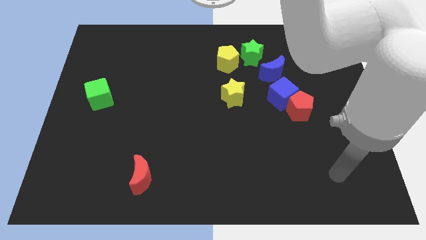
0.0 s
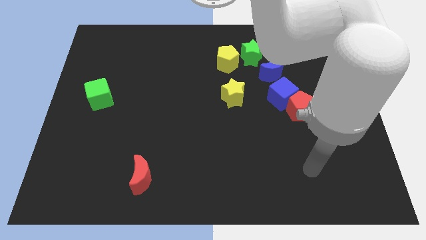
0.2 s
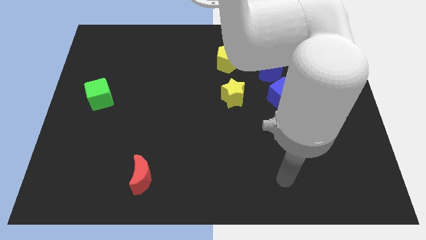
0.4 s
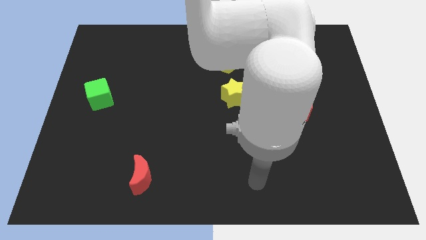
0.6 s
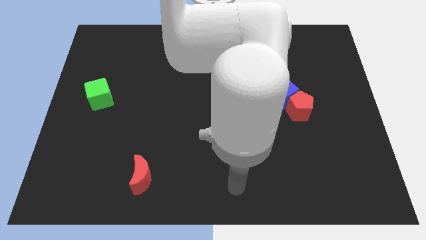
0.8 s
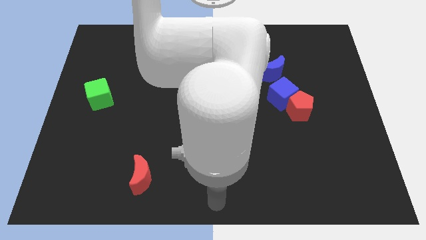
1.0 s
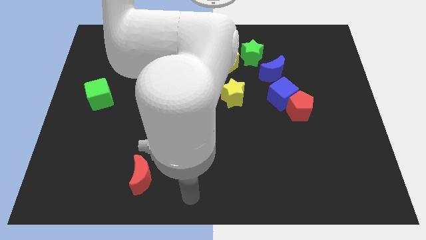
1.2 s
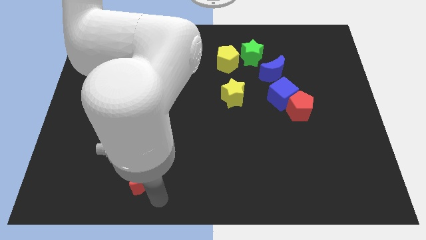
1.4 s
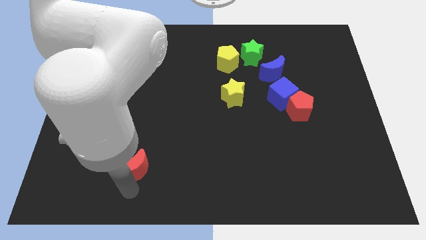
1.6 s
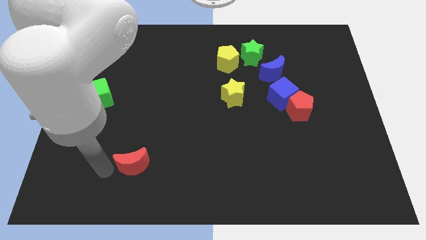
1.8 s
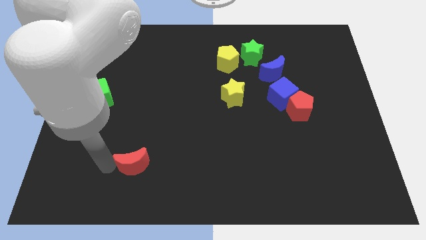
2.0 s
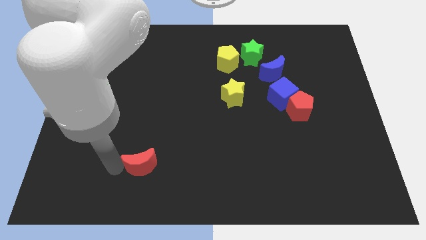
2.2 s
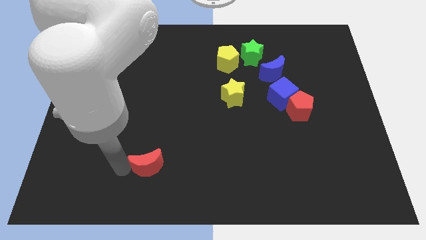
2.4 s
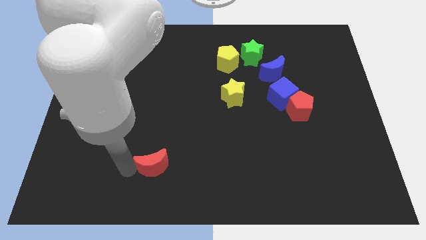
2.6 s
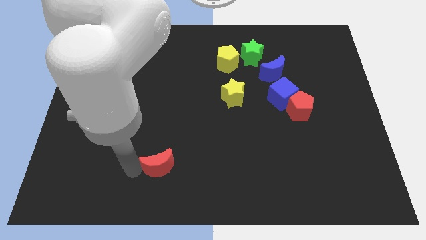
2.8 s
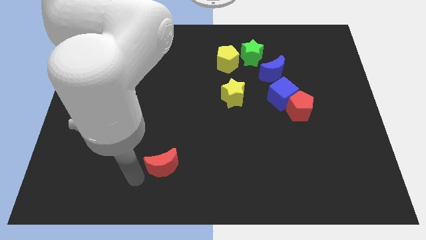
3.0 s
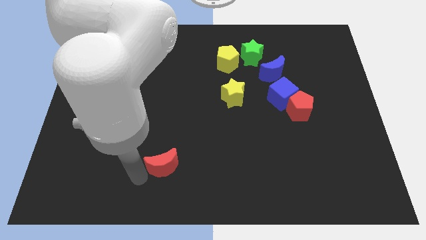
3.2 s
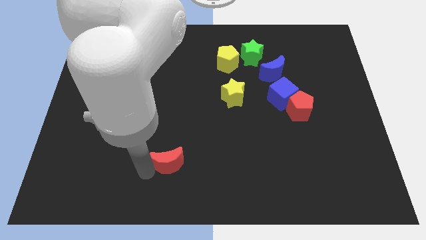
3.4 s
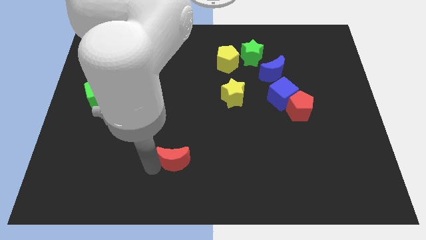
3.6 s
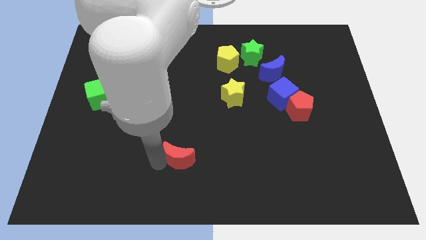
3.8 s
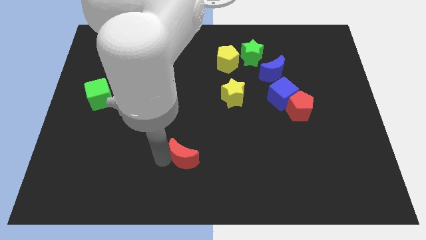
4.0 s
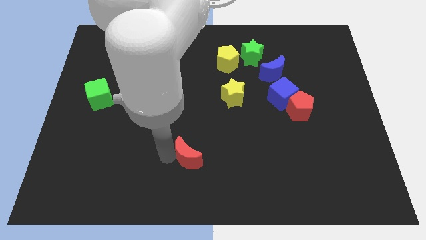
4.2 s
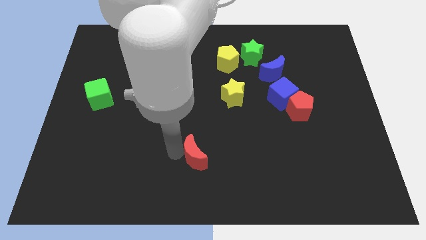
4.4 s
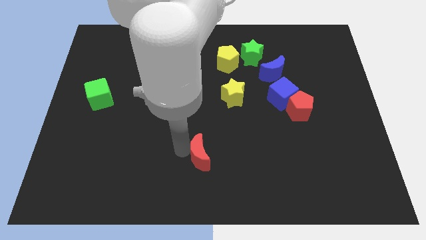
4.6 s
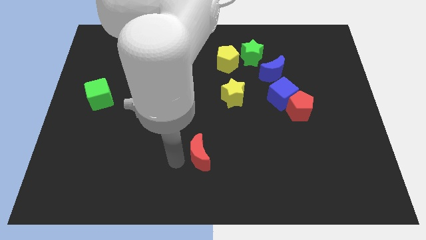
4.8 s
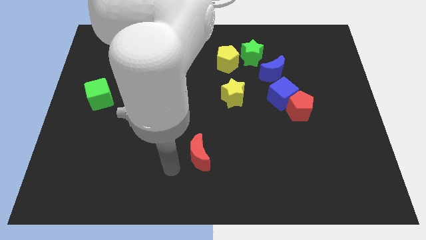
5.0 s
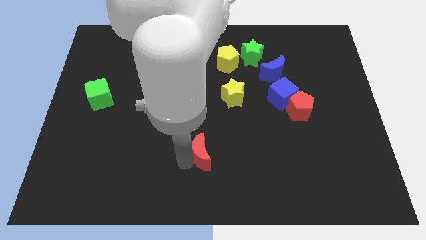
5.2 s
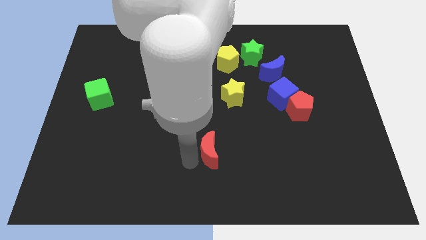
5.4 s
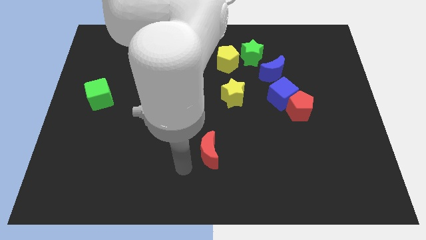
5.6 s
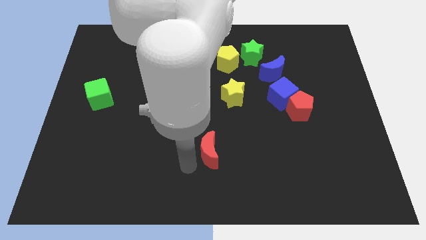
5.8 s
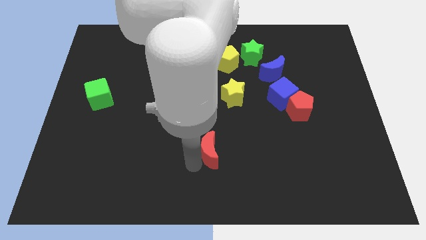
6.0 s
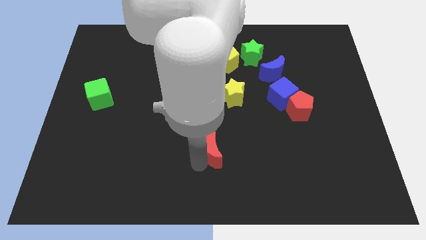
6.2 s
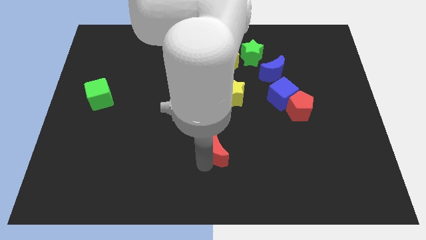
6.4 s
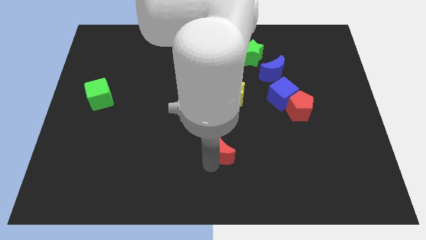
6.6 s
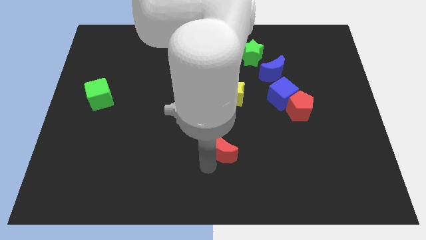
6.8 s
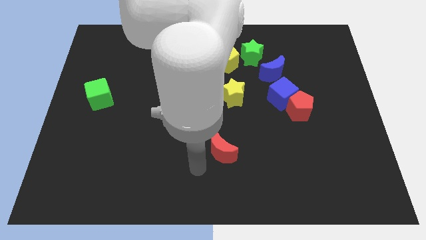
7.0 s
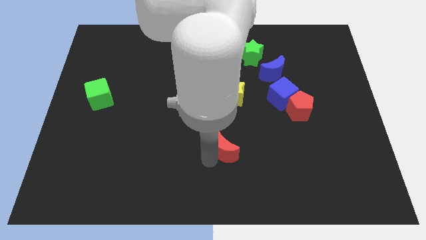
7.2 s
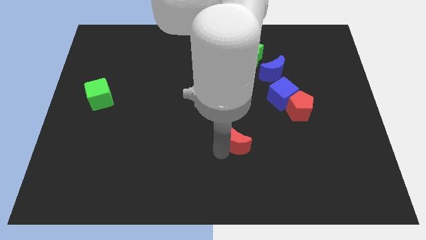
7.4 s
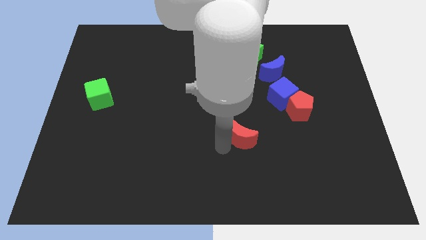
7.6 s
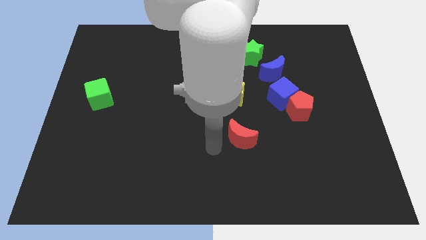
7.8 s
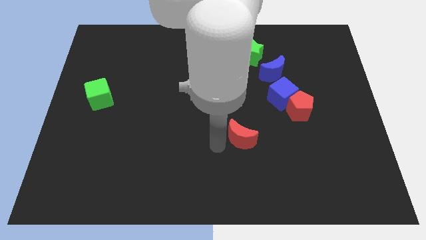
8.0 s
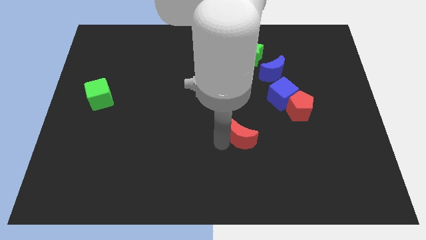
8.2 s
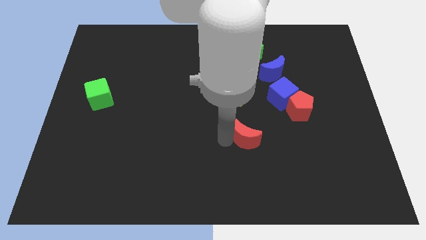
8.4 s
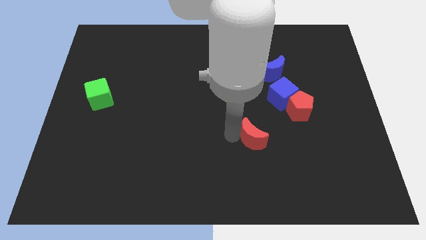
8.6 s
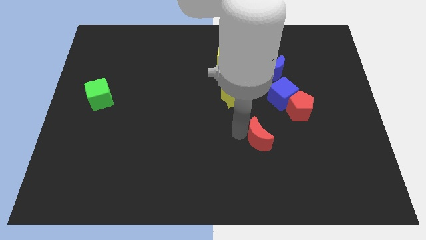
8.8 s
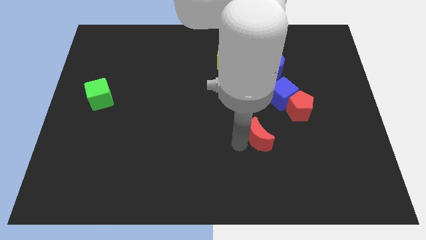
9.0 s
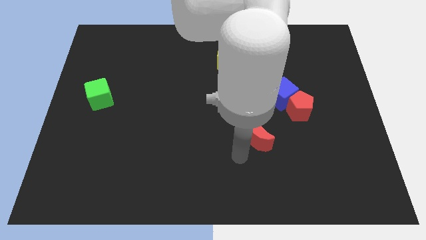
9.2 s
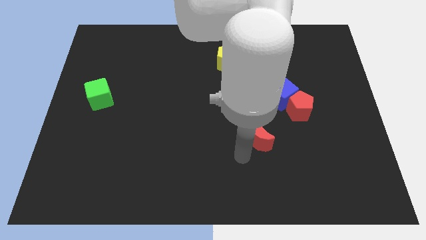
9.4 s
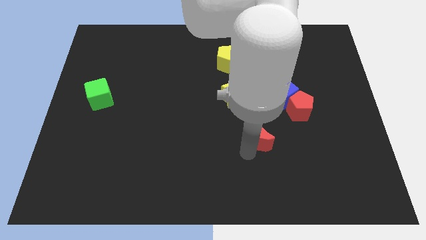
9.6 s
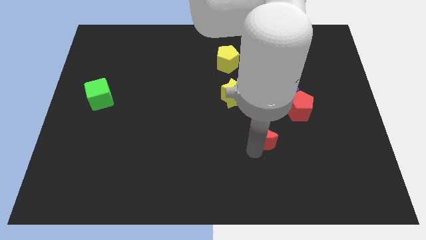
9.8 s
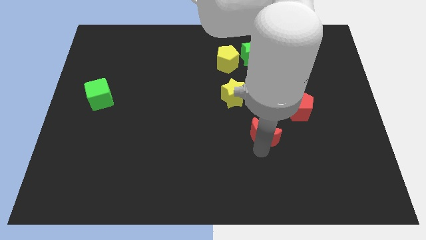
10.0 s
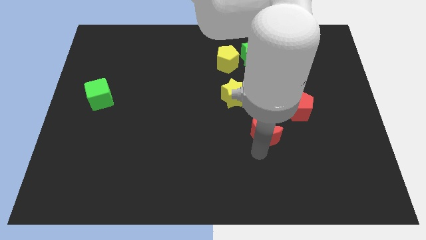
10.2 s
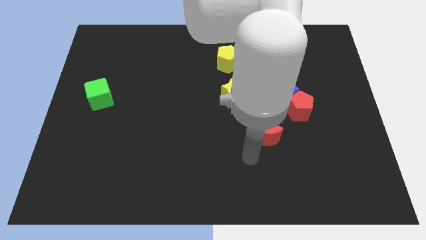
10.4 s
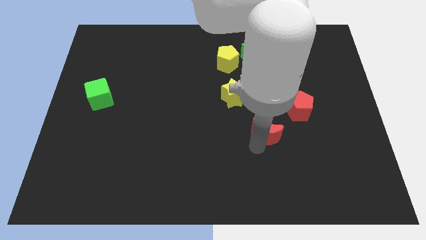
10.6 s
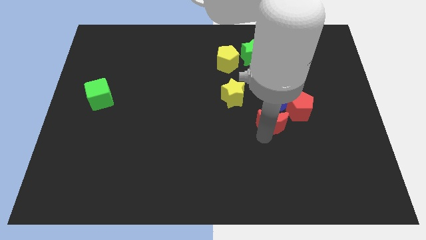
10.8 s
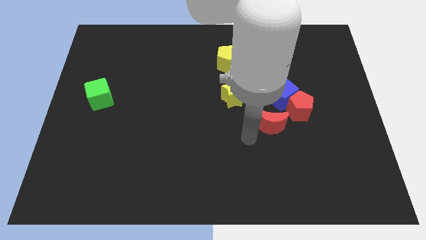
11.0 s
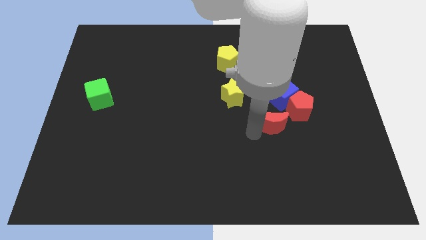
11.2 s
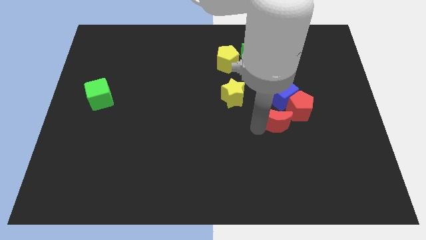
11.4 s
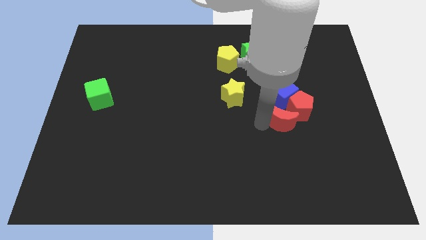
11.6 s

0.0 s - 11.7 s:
put the red moon close to the red pentagon

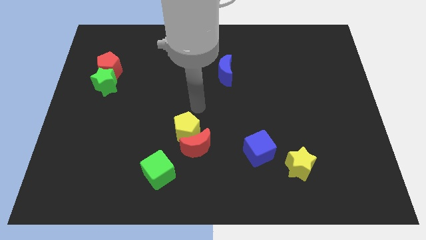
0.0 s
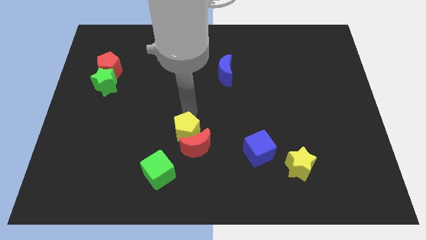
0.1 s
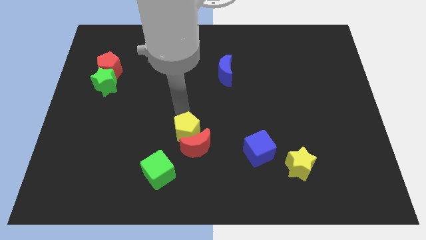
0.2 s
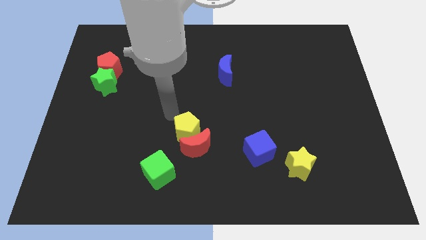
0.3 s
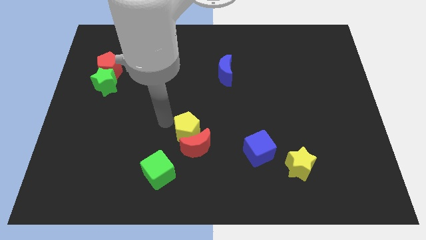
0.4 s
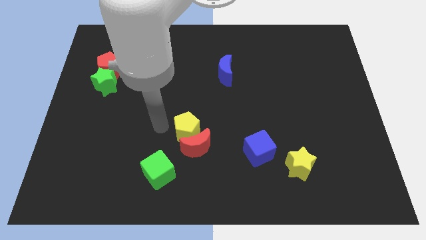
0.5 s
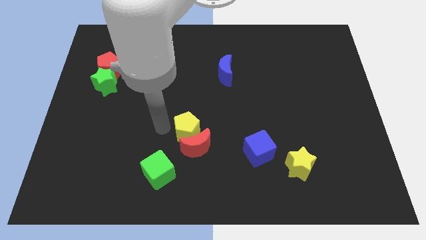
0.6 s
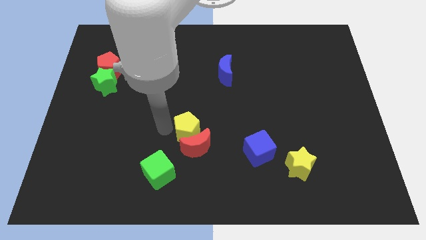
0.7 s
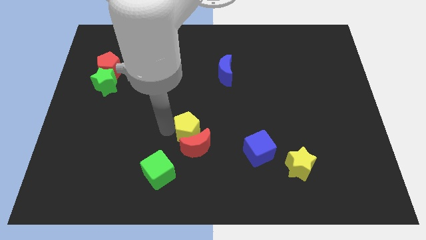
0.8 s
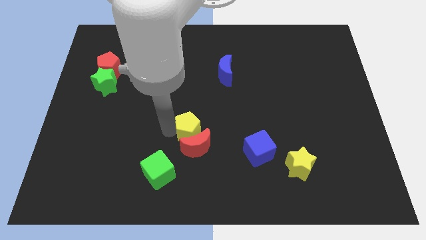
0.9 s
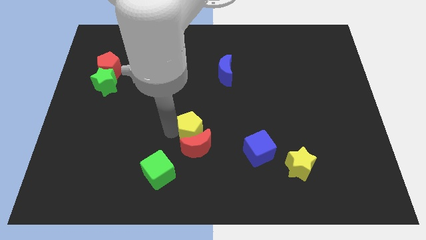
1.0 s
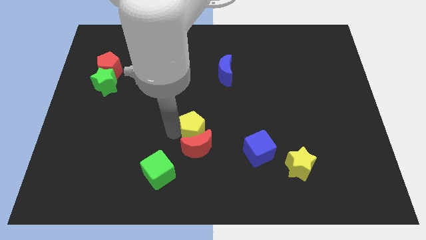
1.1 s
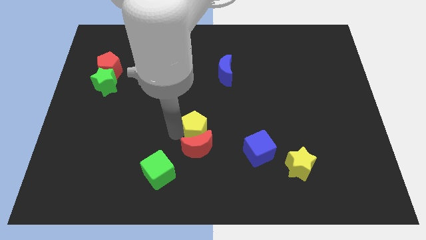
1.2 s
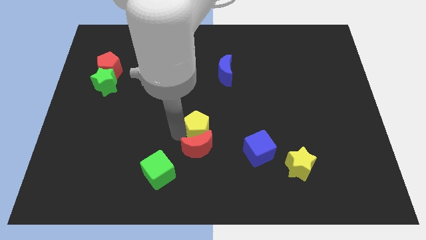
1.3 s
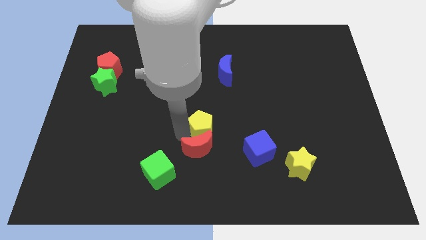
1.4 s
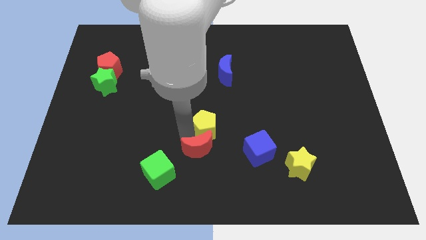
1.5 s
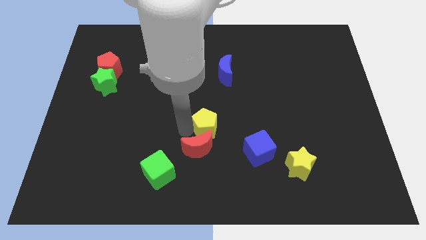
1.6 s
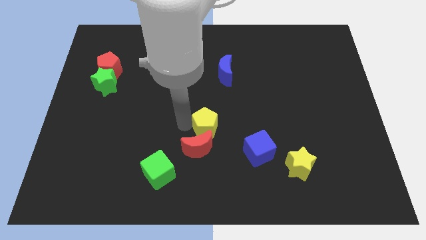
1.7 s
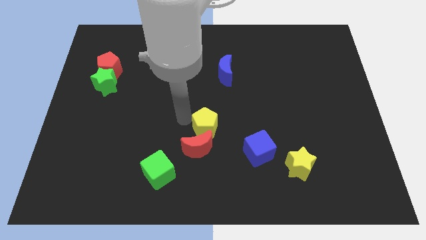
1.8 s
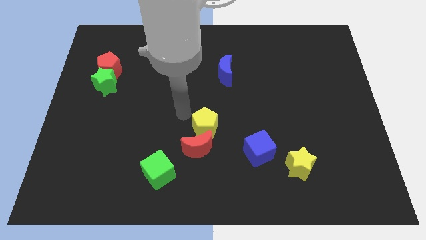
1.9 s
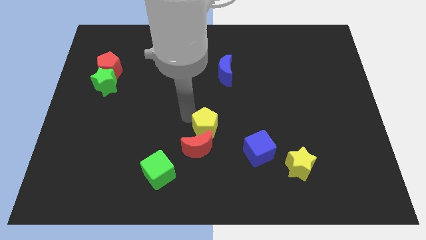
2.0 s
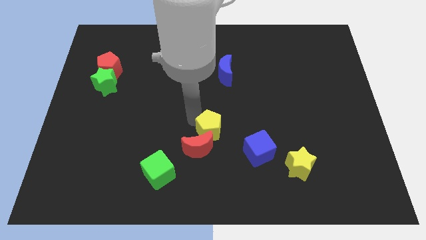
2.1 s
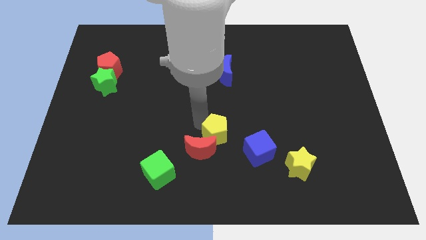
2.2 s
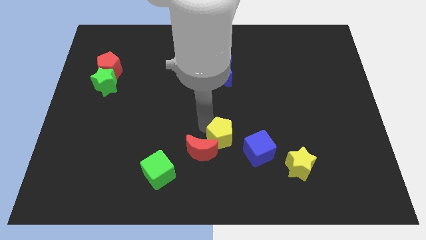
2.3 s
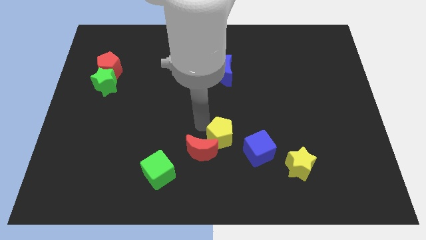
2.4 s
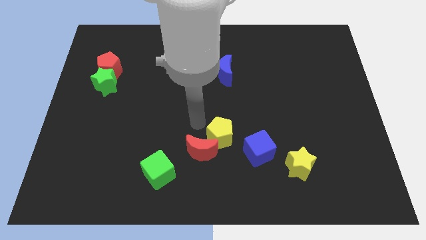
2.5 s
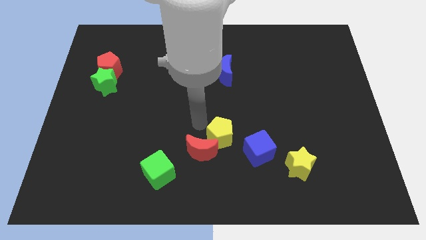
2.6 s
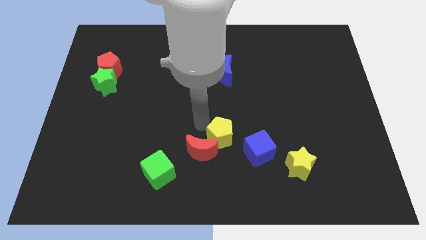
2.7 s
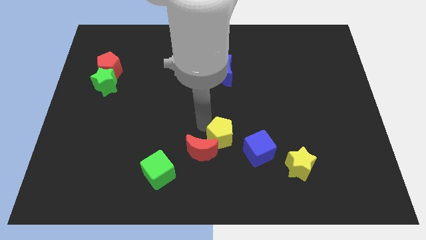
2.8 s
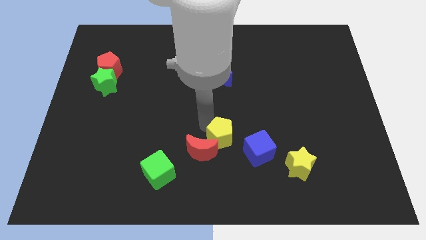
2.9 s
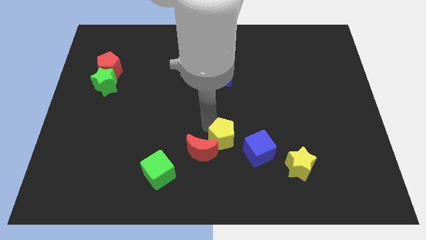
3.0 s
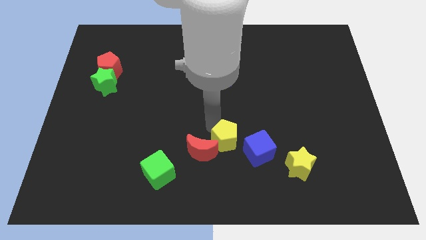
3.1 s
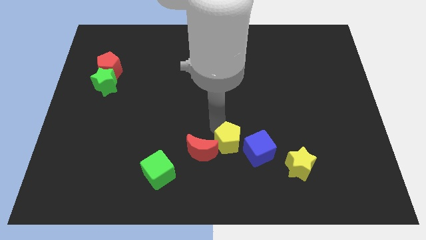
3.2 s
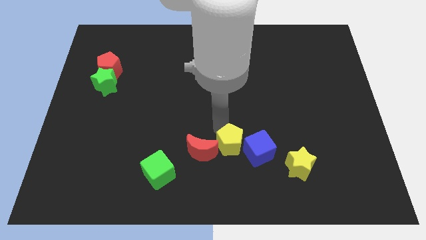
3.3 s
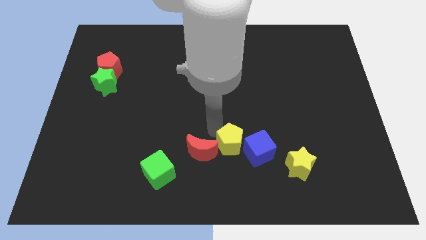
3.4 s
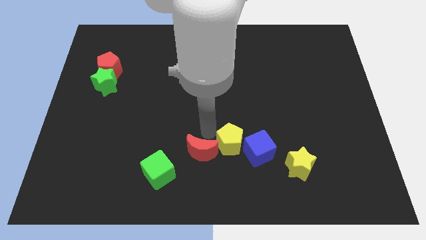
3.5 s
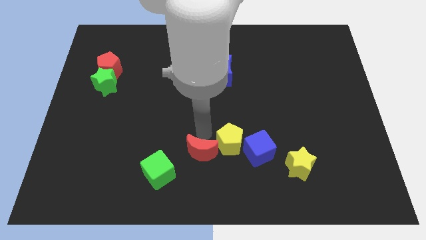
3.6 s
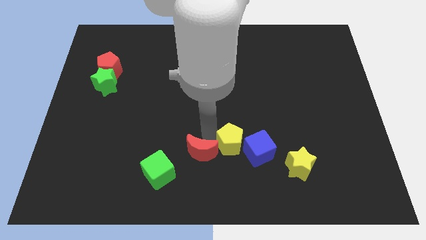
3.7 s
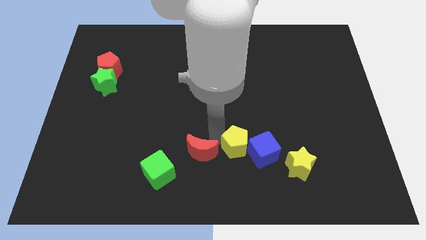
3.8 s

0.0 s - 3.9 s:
slide the yellow pentagon to the blue cube
